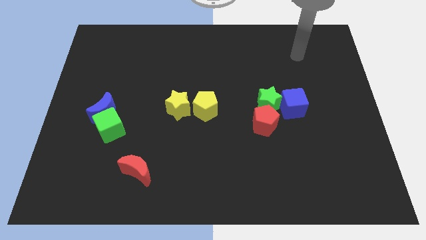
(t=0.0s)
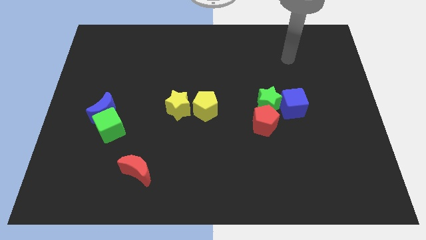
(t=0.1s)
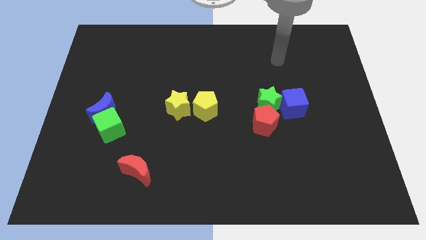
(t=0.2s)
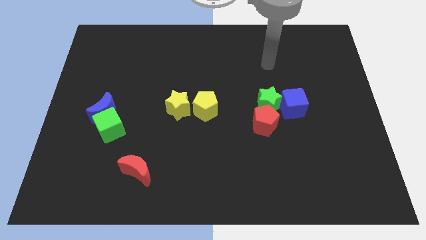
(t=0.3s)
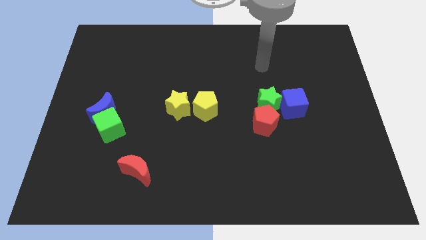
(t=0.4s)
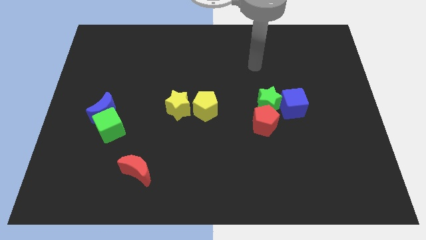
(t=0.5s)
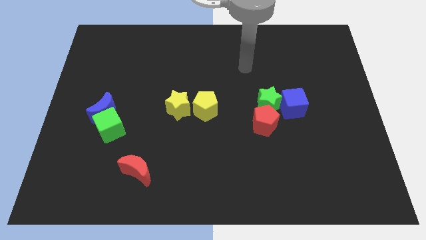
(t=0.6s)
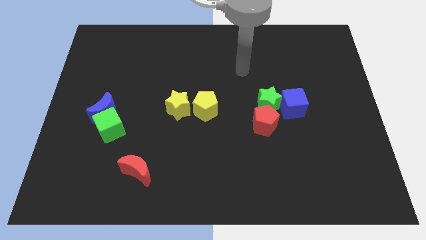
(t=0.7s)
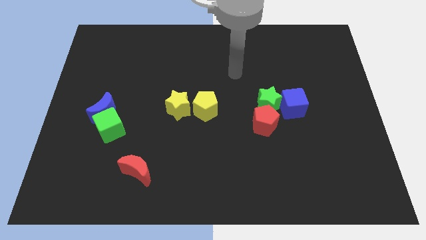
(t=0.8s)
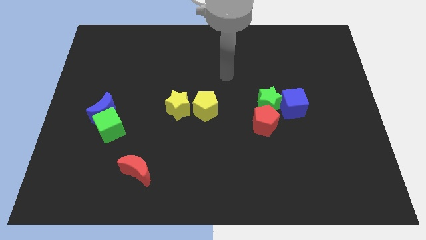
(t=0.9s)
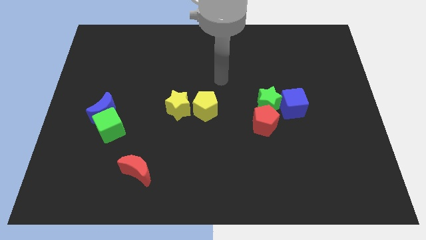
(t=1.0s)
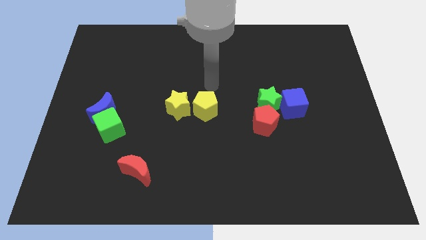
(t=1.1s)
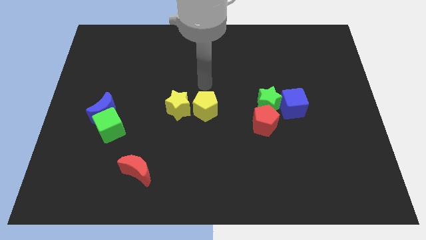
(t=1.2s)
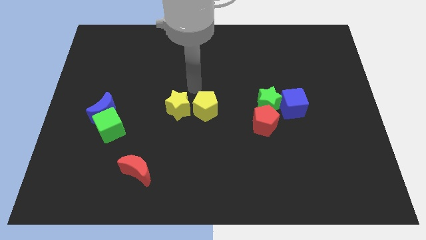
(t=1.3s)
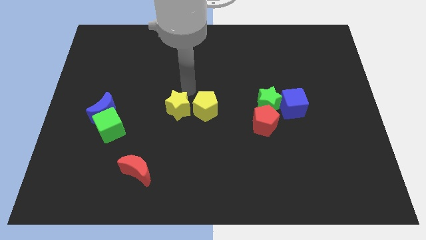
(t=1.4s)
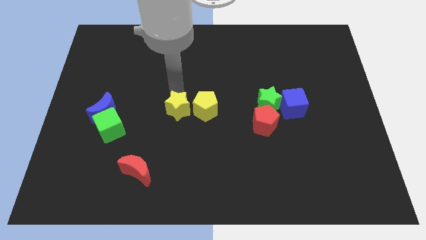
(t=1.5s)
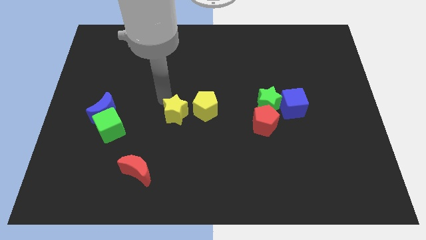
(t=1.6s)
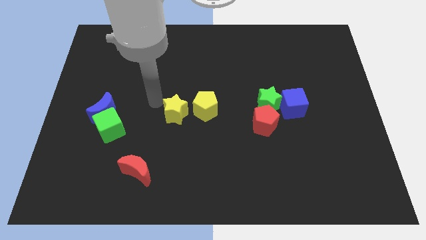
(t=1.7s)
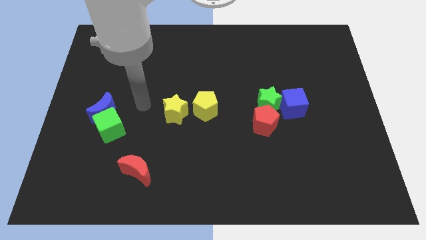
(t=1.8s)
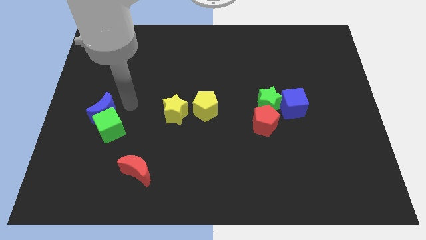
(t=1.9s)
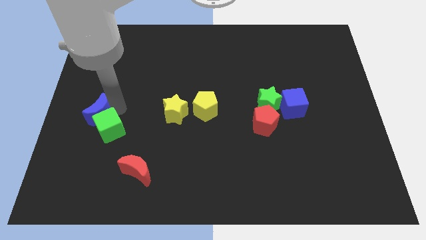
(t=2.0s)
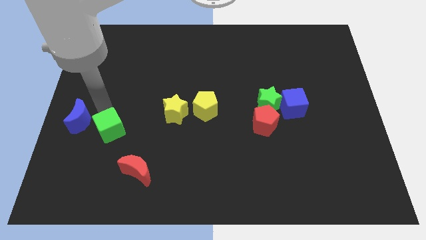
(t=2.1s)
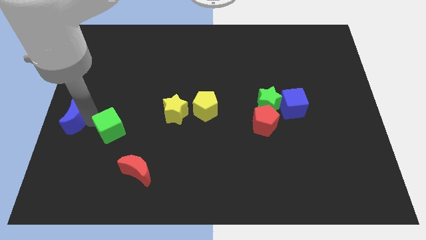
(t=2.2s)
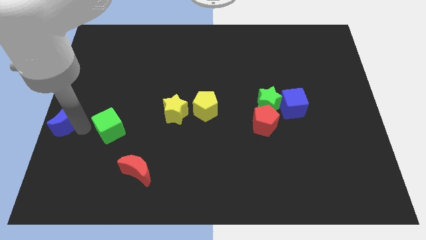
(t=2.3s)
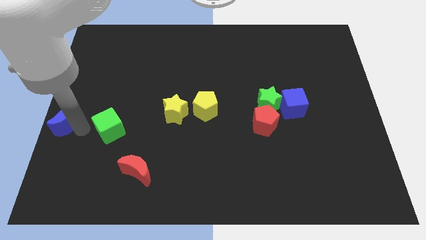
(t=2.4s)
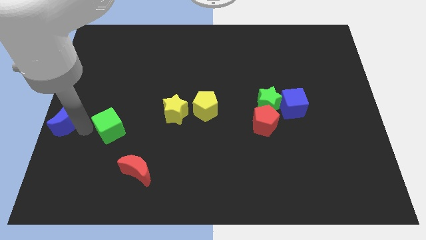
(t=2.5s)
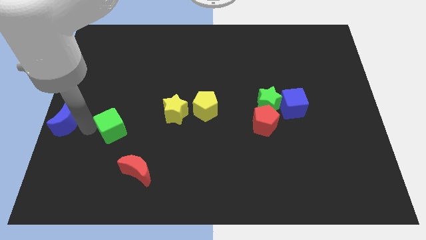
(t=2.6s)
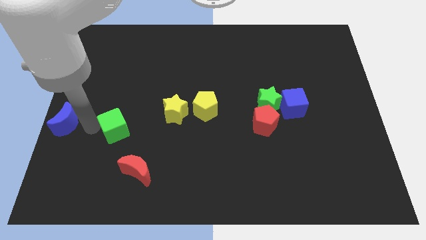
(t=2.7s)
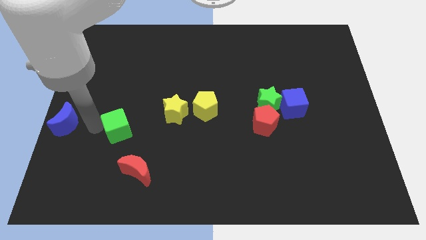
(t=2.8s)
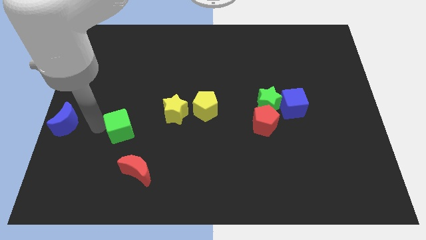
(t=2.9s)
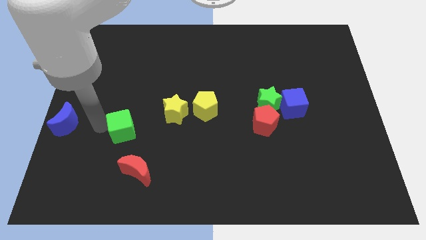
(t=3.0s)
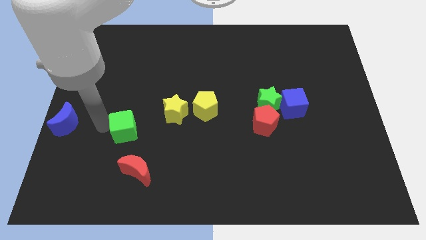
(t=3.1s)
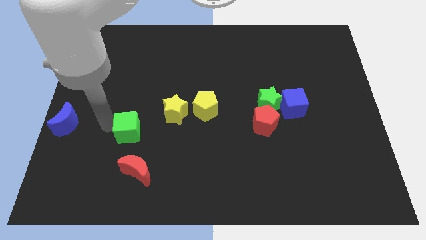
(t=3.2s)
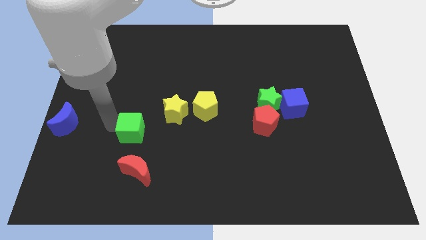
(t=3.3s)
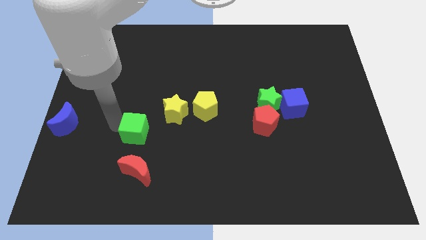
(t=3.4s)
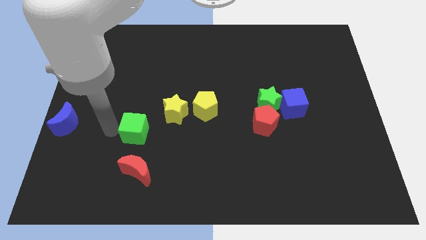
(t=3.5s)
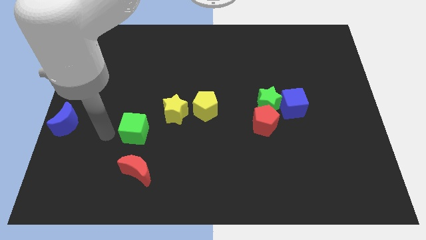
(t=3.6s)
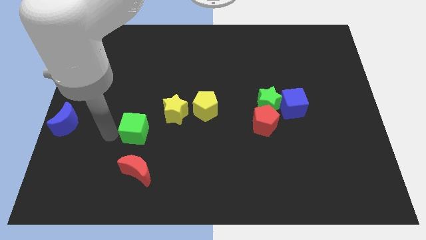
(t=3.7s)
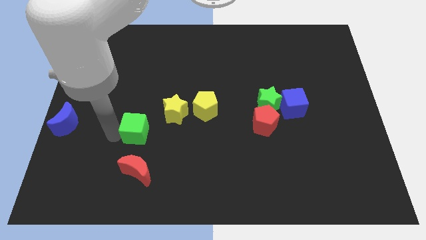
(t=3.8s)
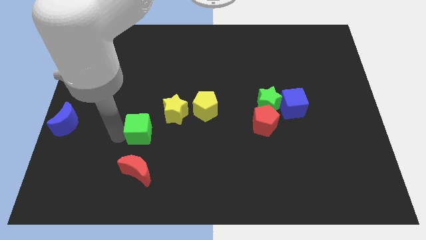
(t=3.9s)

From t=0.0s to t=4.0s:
push the green cube right a little bit

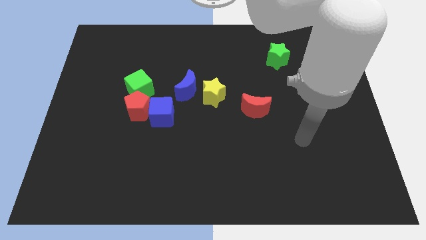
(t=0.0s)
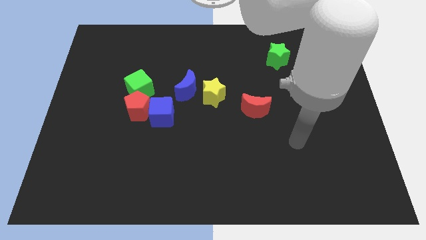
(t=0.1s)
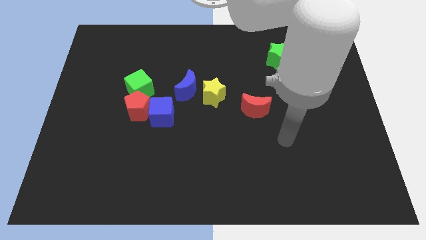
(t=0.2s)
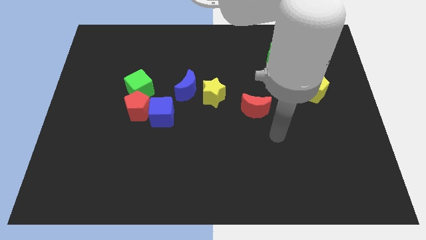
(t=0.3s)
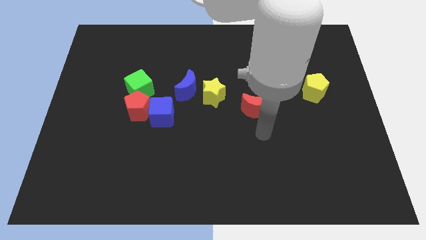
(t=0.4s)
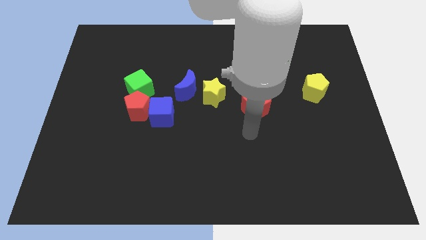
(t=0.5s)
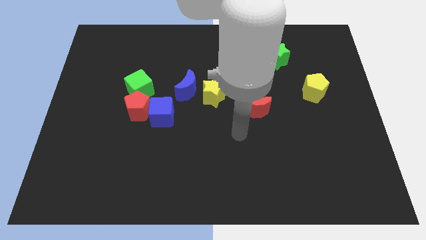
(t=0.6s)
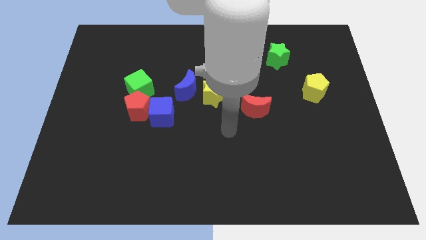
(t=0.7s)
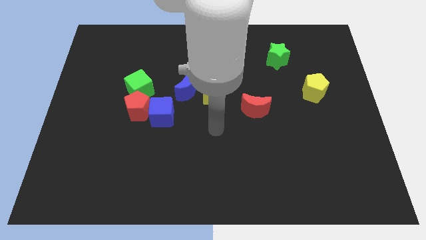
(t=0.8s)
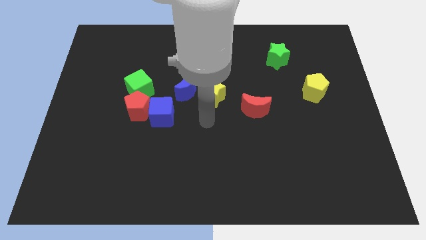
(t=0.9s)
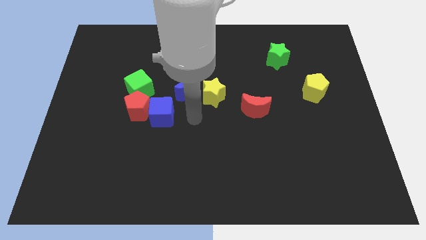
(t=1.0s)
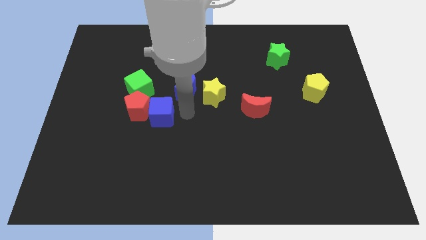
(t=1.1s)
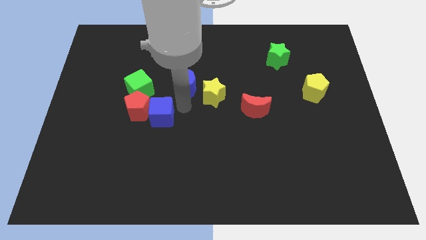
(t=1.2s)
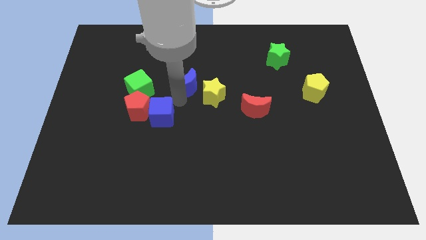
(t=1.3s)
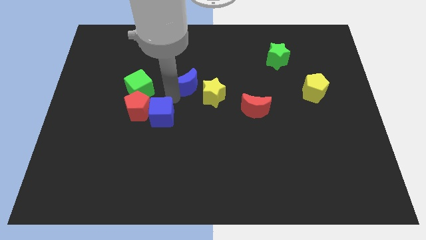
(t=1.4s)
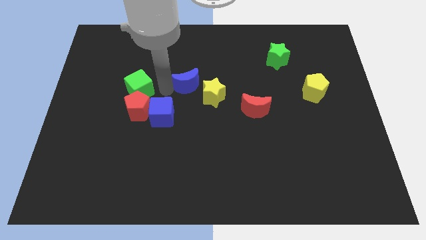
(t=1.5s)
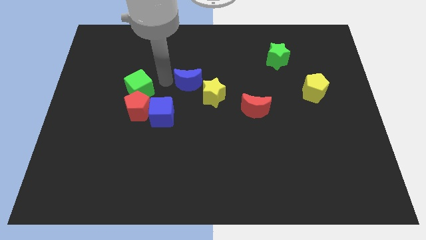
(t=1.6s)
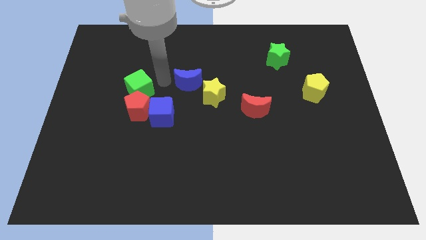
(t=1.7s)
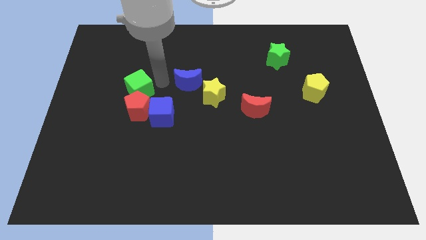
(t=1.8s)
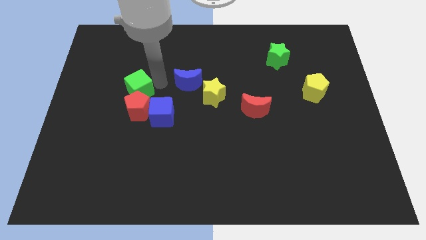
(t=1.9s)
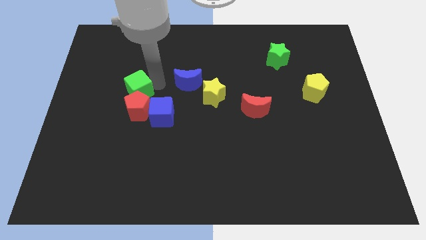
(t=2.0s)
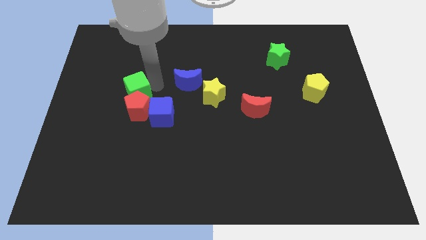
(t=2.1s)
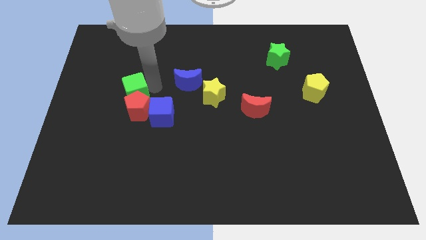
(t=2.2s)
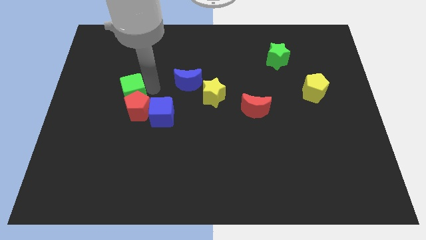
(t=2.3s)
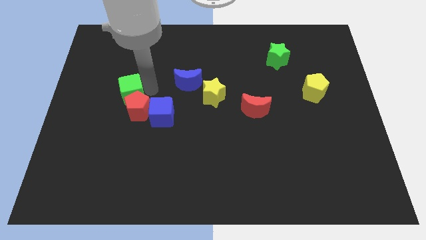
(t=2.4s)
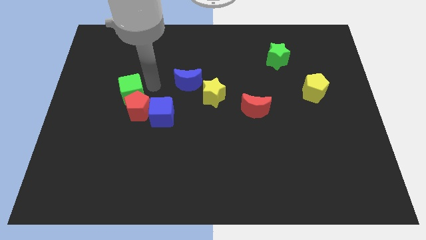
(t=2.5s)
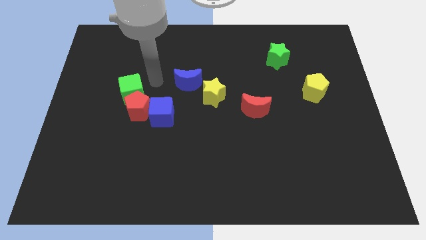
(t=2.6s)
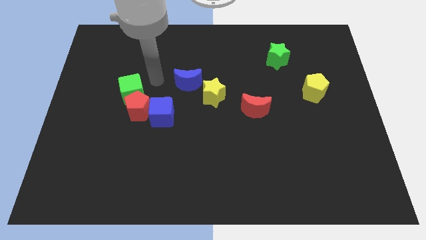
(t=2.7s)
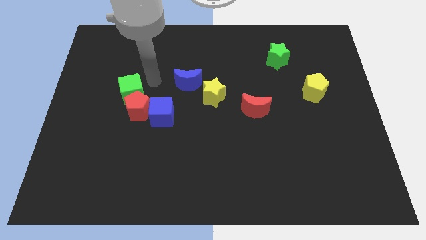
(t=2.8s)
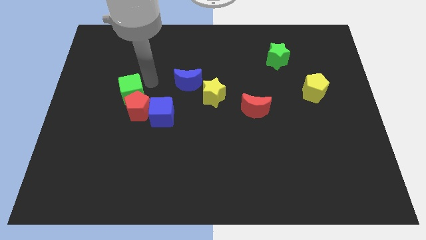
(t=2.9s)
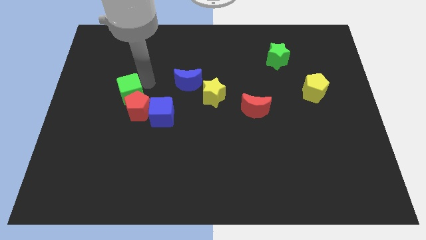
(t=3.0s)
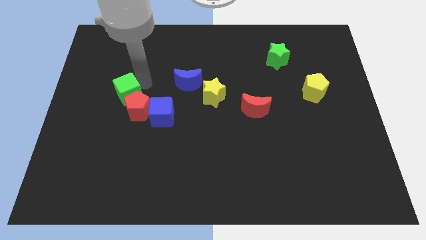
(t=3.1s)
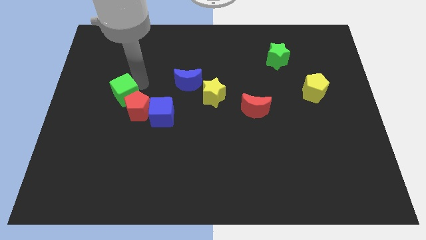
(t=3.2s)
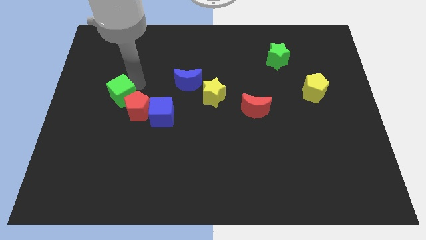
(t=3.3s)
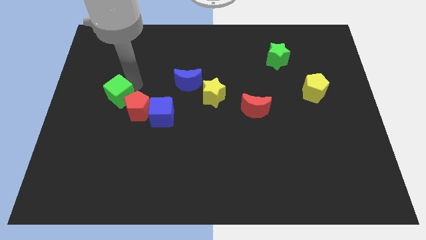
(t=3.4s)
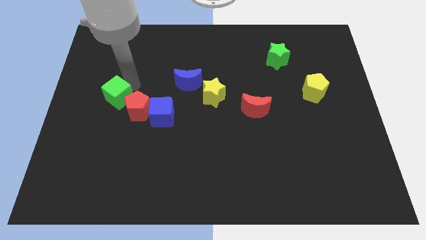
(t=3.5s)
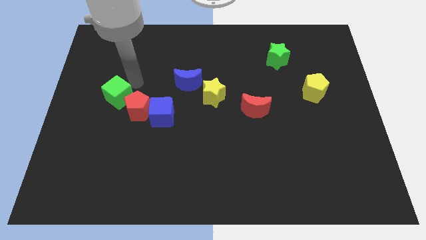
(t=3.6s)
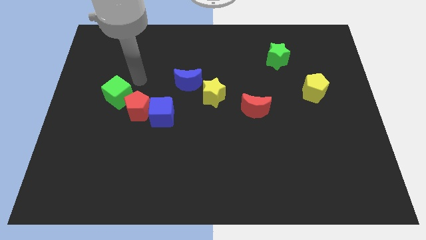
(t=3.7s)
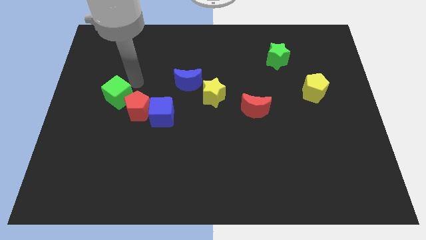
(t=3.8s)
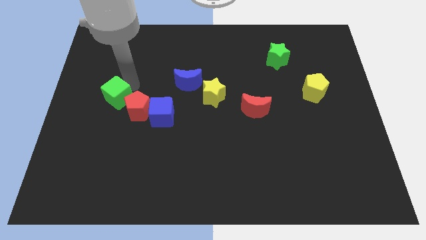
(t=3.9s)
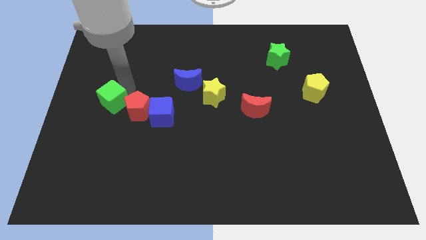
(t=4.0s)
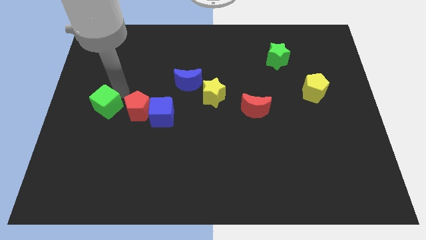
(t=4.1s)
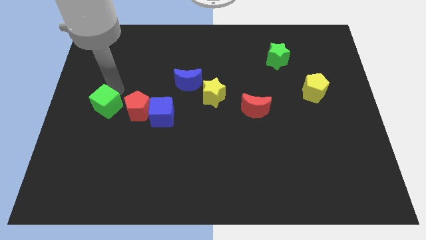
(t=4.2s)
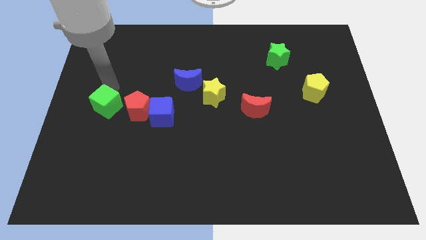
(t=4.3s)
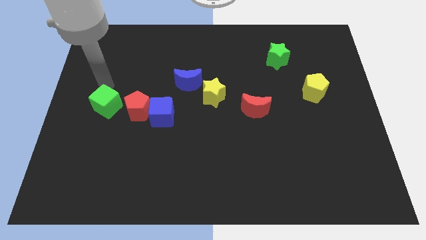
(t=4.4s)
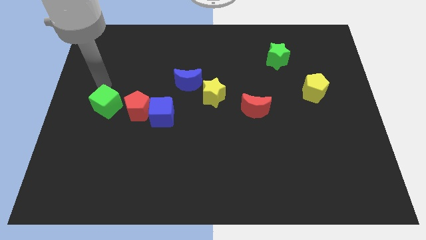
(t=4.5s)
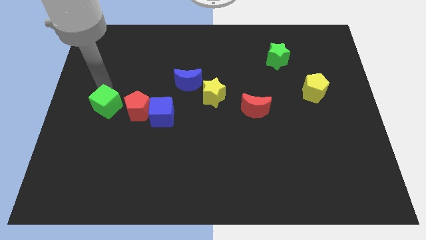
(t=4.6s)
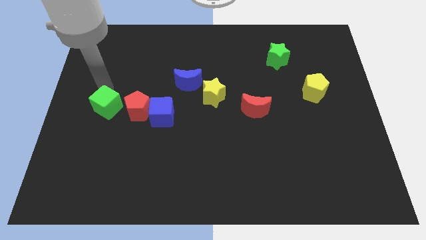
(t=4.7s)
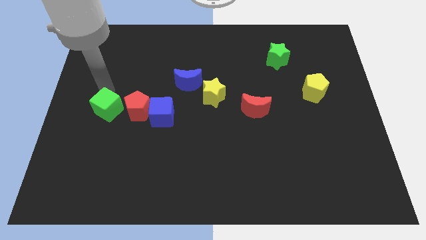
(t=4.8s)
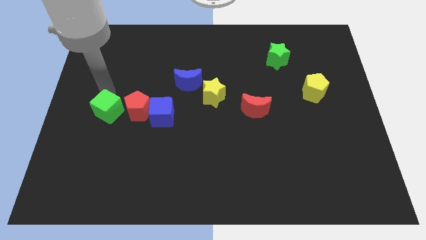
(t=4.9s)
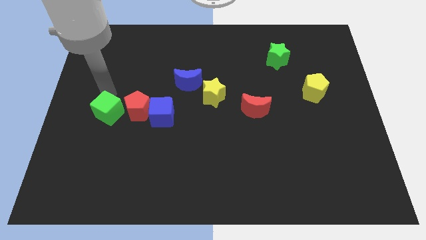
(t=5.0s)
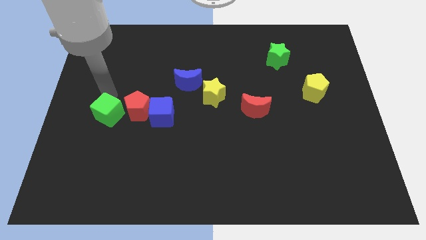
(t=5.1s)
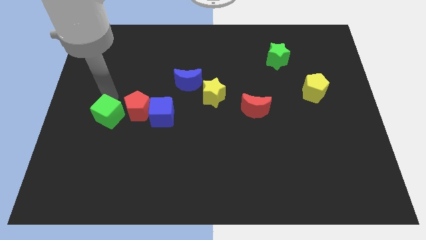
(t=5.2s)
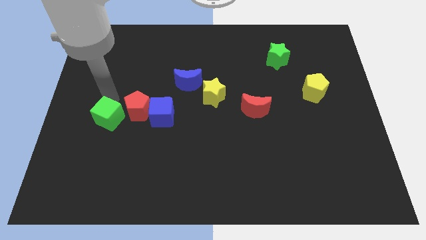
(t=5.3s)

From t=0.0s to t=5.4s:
slightly push the green cube downwards
